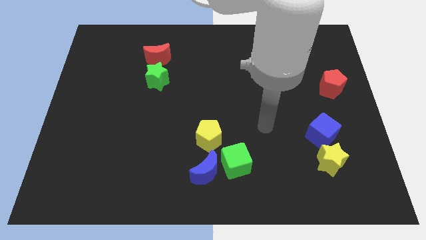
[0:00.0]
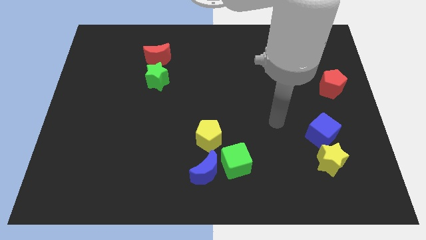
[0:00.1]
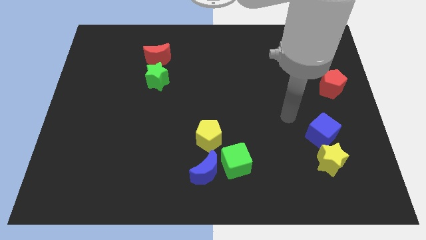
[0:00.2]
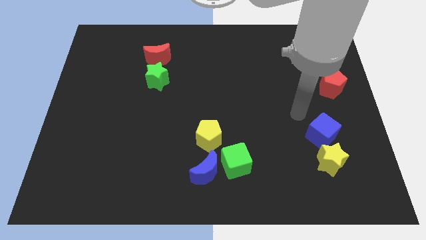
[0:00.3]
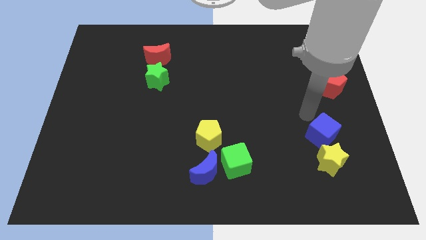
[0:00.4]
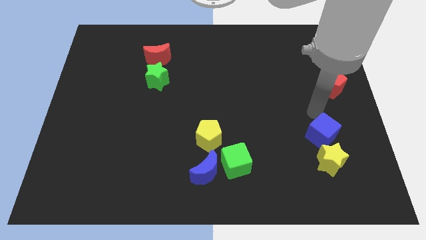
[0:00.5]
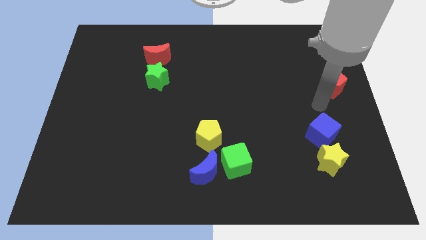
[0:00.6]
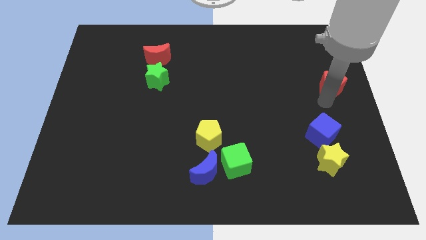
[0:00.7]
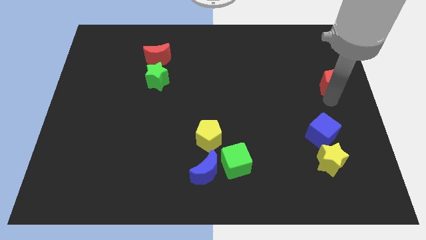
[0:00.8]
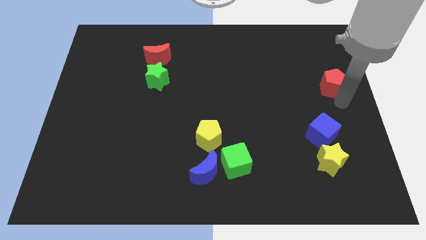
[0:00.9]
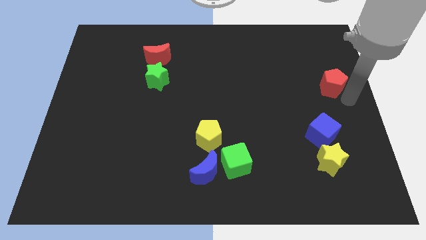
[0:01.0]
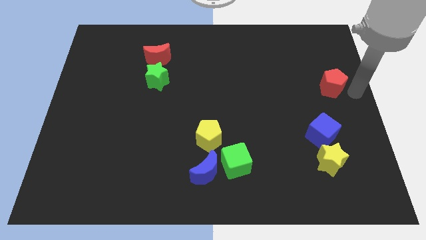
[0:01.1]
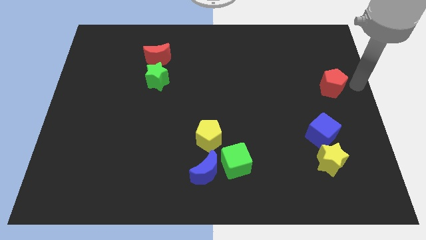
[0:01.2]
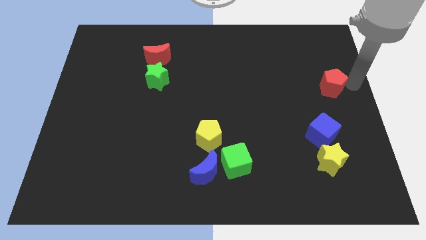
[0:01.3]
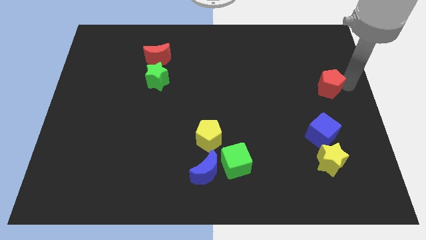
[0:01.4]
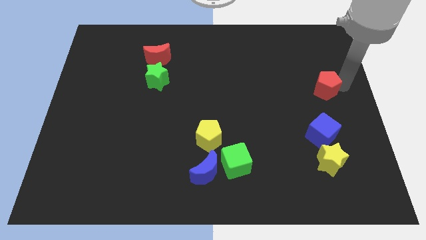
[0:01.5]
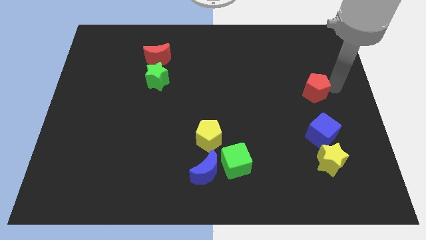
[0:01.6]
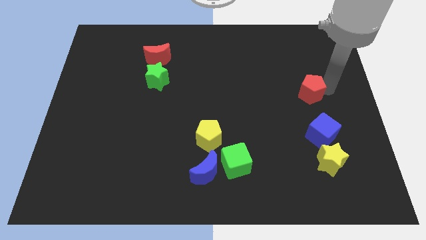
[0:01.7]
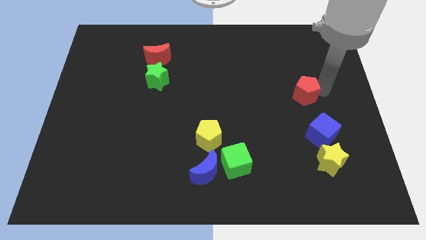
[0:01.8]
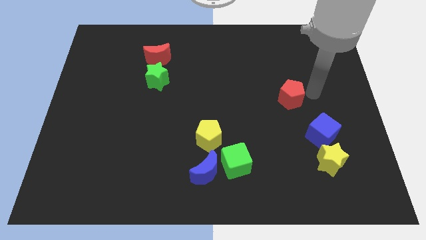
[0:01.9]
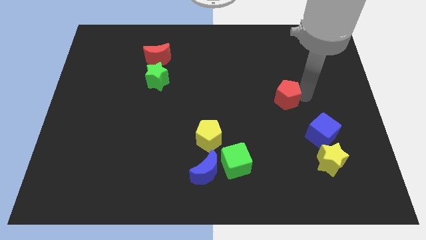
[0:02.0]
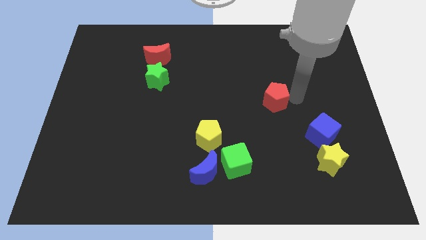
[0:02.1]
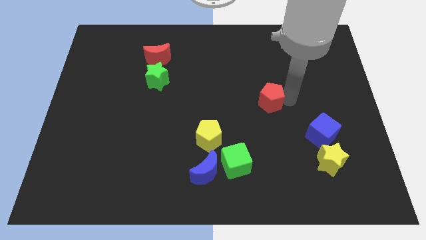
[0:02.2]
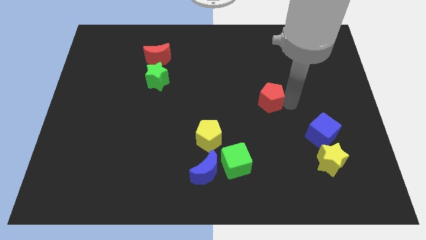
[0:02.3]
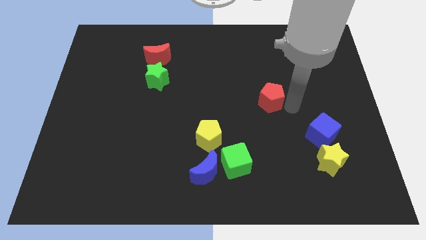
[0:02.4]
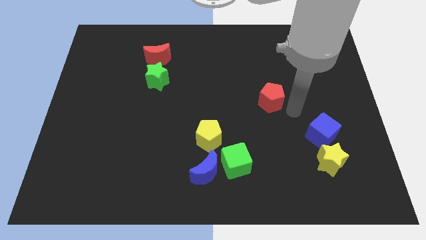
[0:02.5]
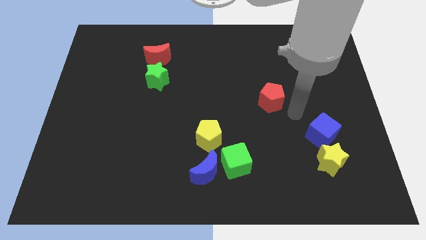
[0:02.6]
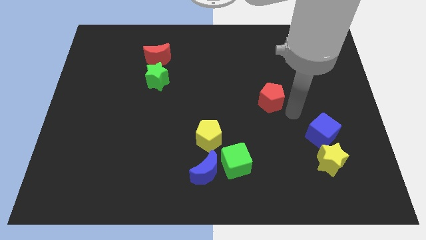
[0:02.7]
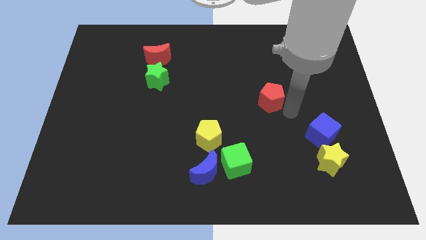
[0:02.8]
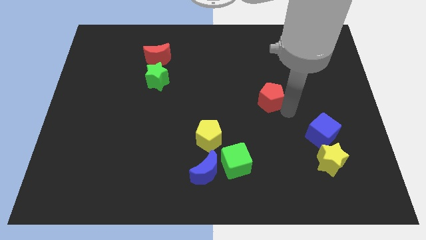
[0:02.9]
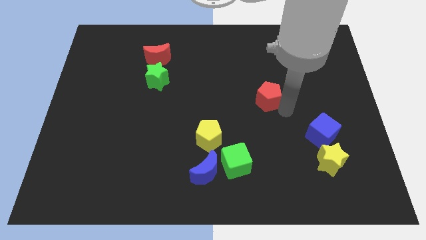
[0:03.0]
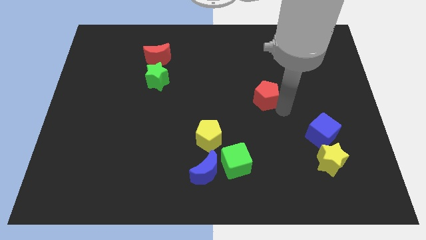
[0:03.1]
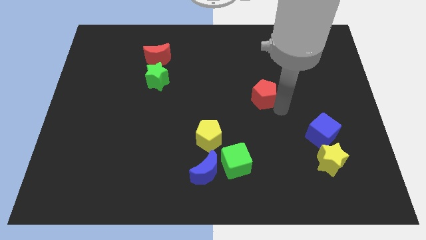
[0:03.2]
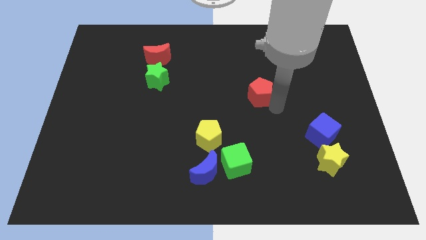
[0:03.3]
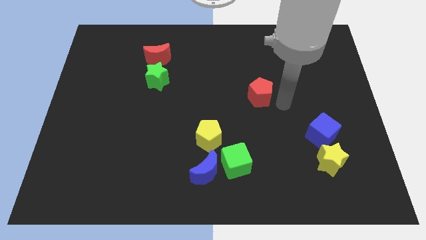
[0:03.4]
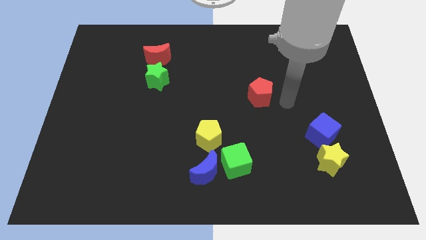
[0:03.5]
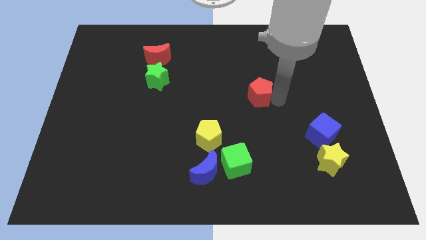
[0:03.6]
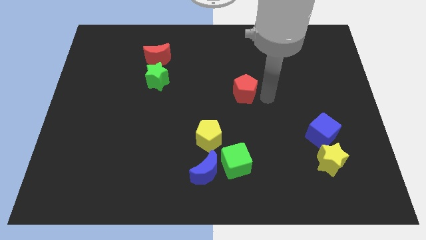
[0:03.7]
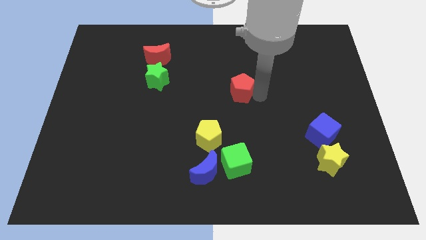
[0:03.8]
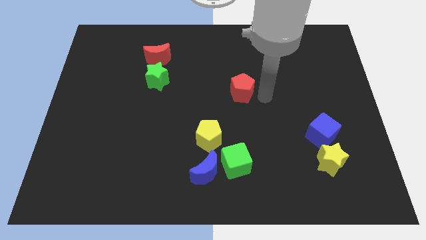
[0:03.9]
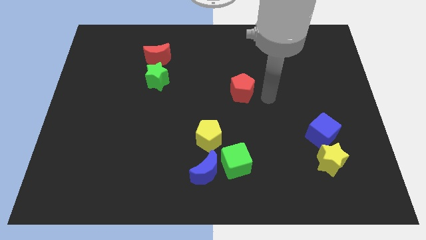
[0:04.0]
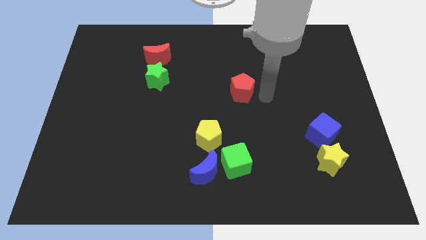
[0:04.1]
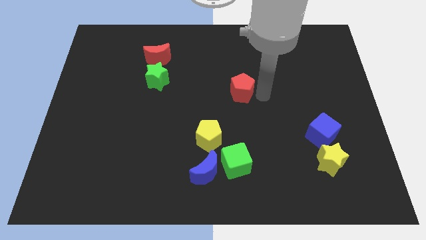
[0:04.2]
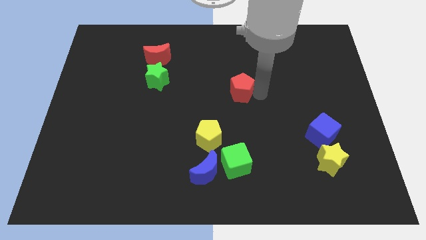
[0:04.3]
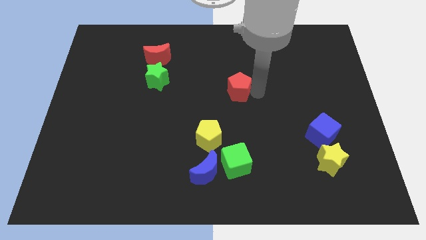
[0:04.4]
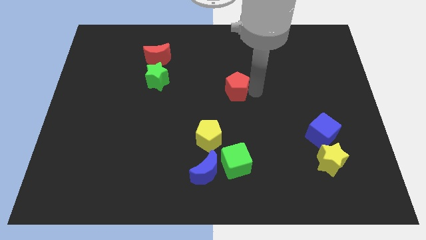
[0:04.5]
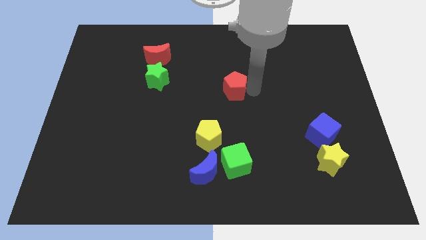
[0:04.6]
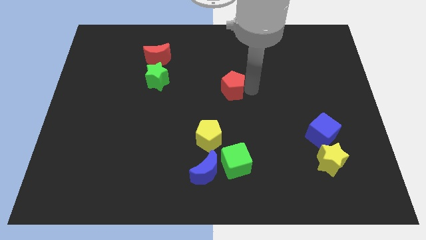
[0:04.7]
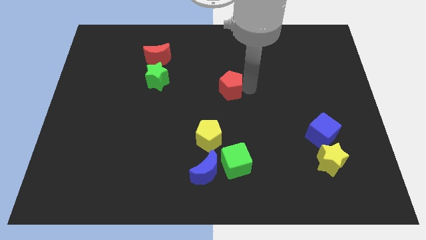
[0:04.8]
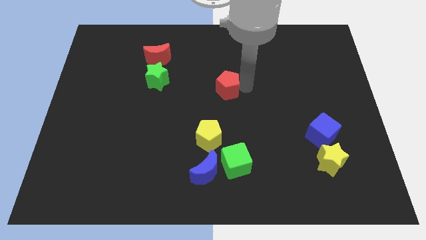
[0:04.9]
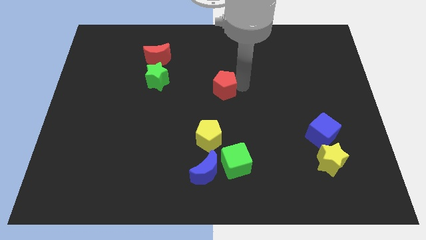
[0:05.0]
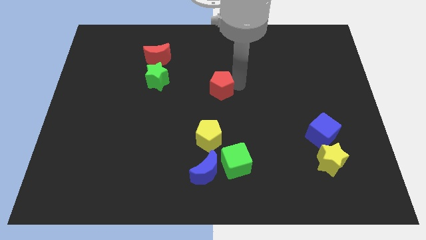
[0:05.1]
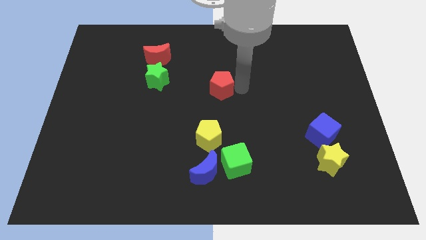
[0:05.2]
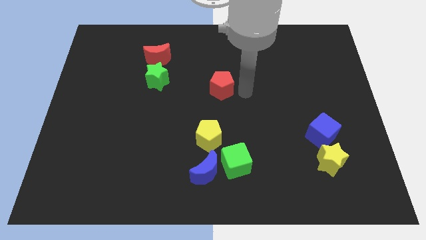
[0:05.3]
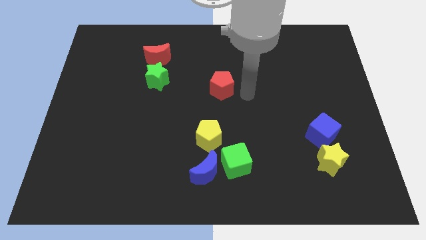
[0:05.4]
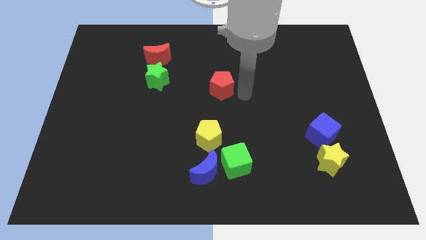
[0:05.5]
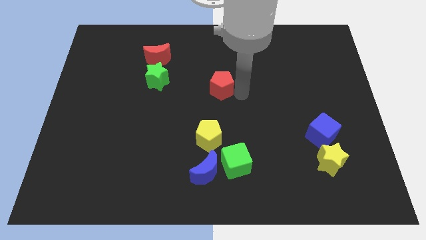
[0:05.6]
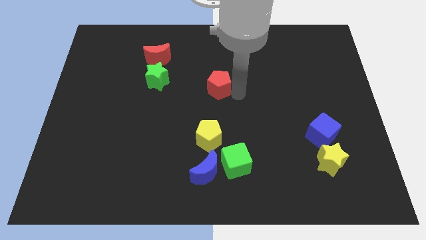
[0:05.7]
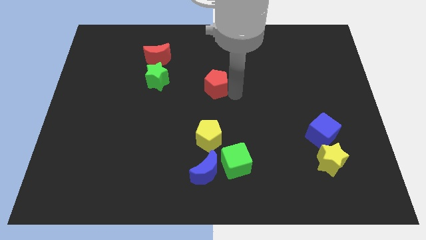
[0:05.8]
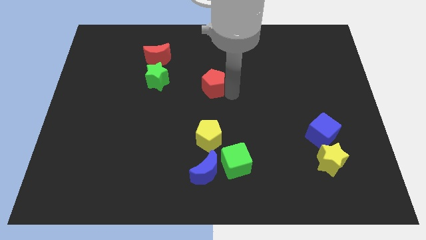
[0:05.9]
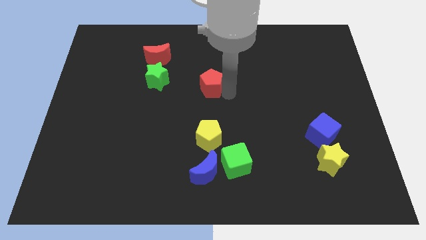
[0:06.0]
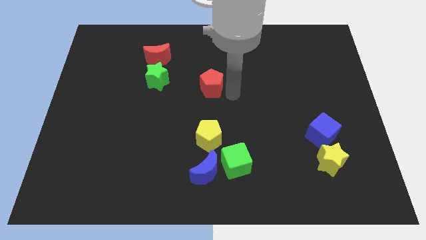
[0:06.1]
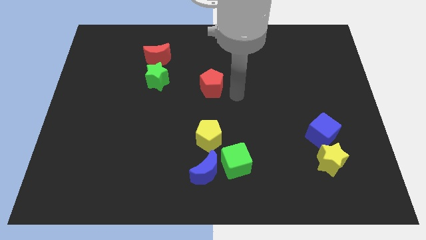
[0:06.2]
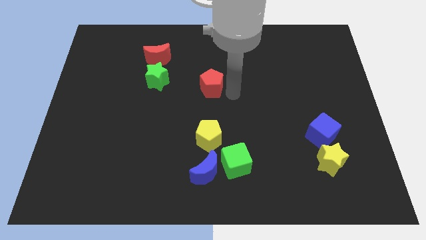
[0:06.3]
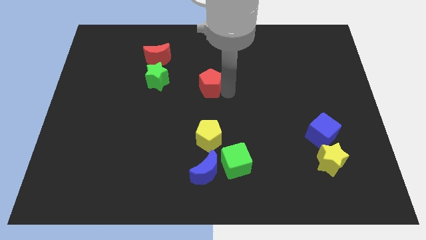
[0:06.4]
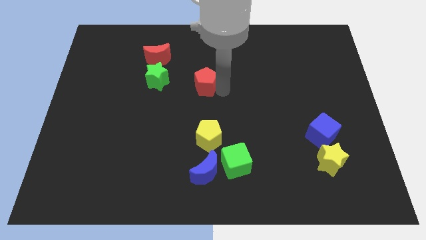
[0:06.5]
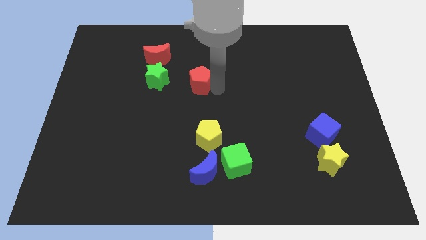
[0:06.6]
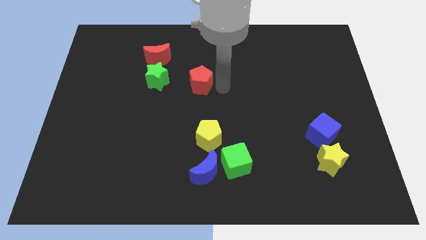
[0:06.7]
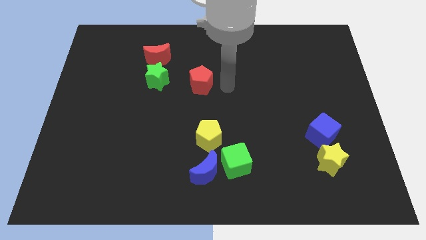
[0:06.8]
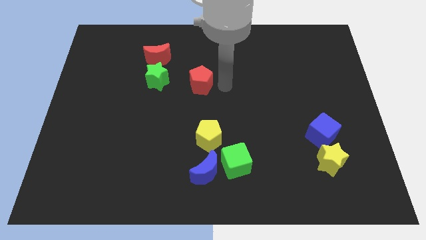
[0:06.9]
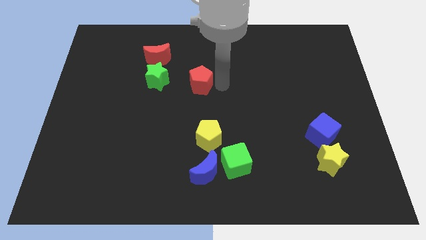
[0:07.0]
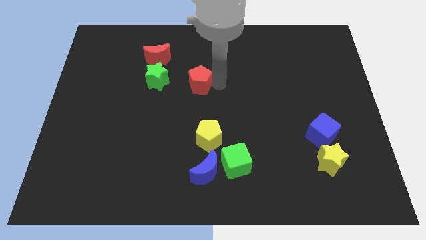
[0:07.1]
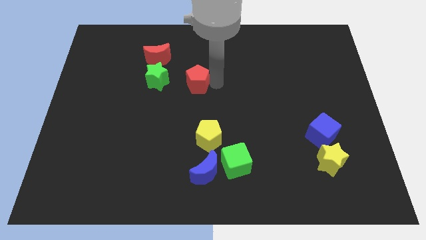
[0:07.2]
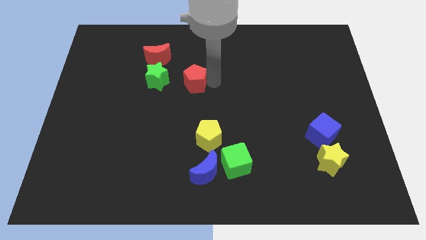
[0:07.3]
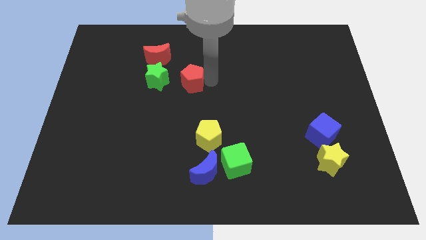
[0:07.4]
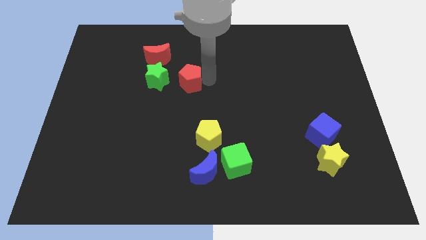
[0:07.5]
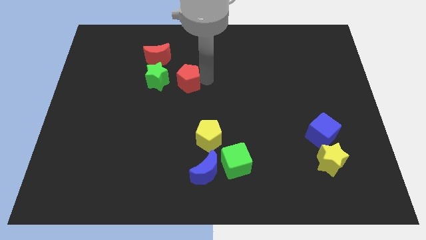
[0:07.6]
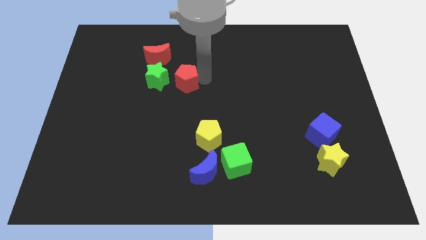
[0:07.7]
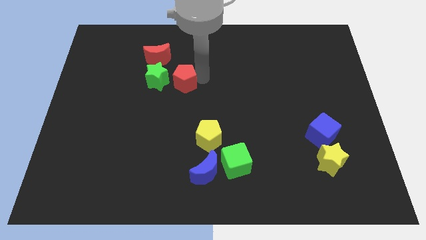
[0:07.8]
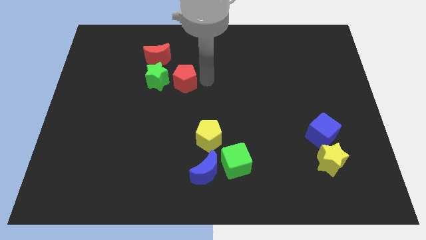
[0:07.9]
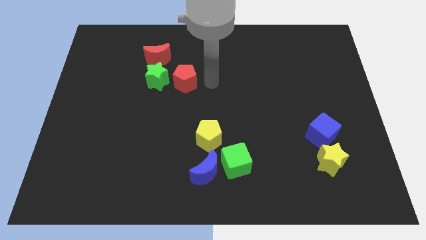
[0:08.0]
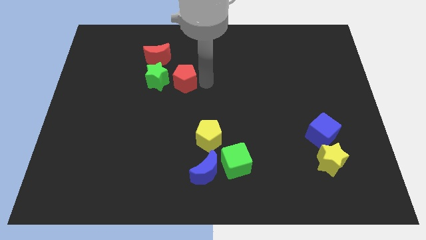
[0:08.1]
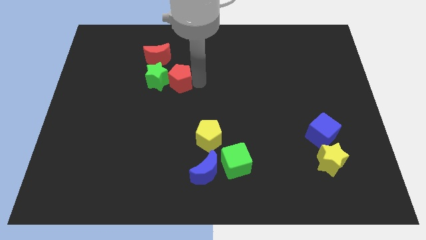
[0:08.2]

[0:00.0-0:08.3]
slide the red pentagon towards the green star
